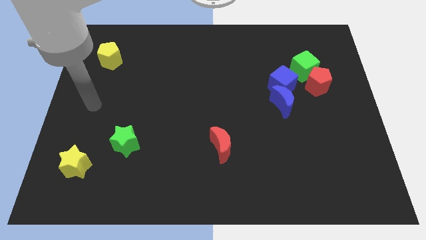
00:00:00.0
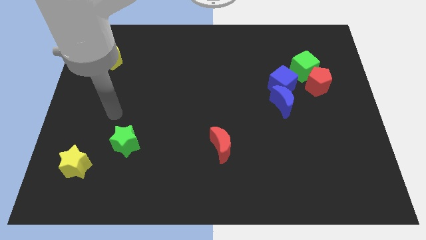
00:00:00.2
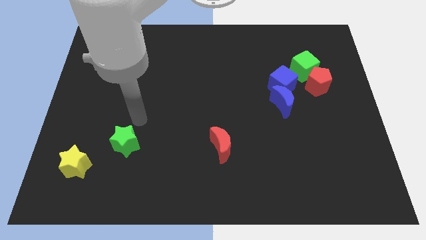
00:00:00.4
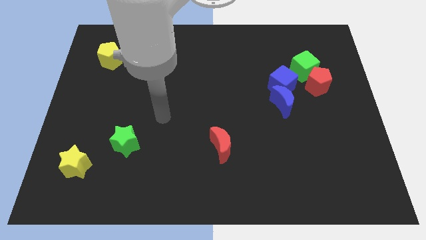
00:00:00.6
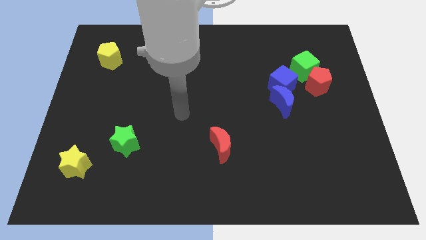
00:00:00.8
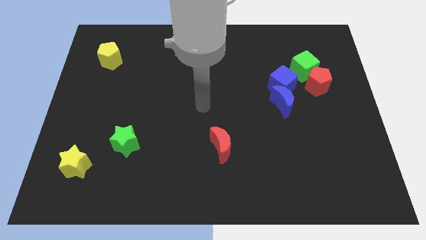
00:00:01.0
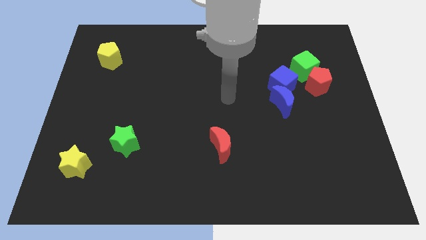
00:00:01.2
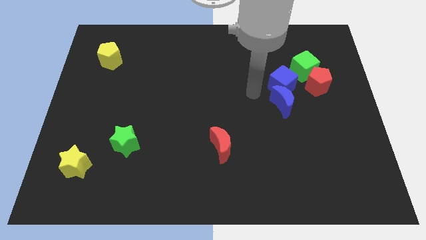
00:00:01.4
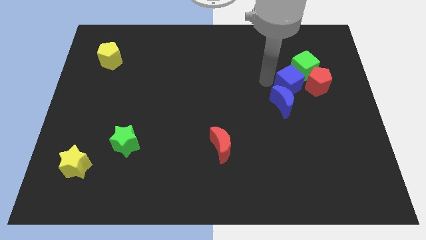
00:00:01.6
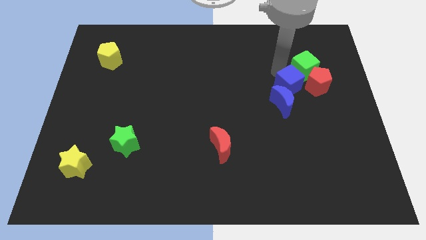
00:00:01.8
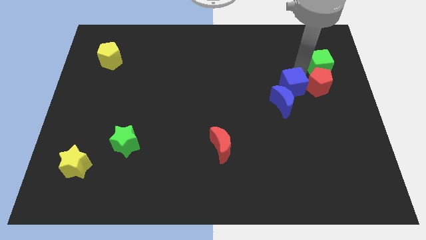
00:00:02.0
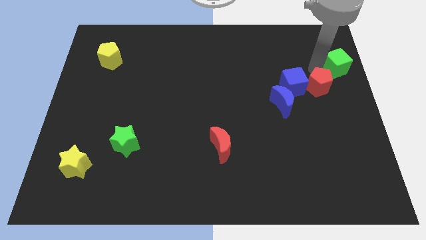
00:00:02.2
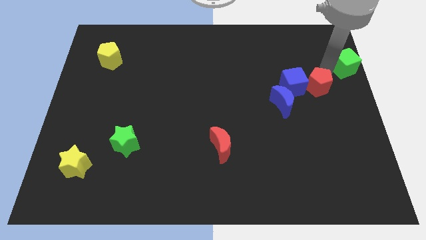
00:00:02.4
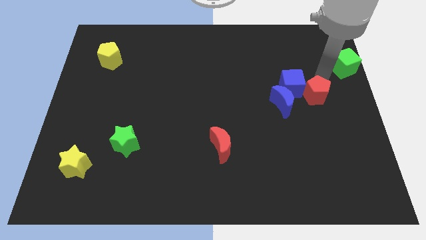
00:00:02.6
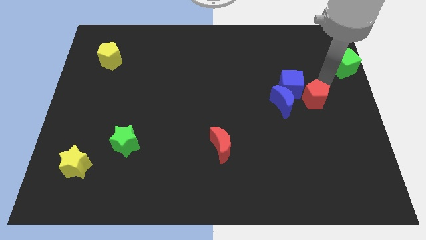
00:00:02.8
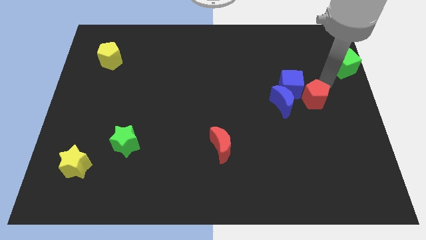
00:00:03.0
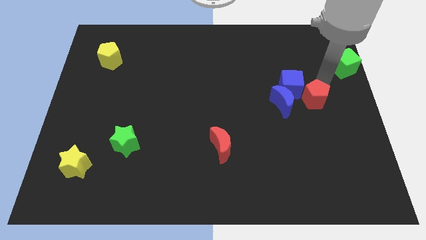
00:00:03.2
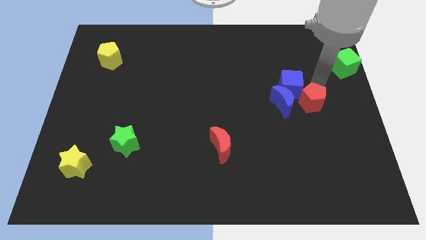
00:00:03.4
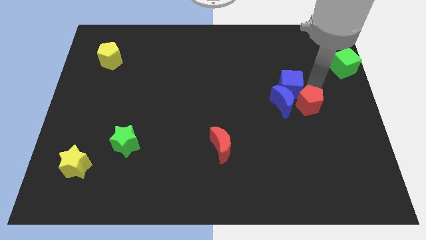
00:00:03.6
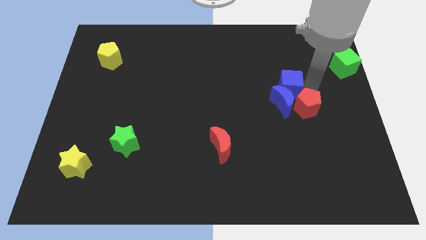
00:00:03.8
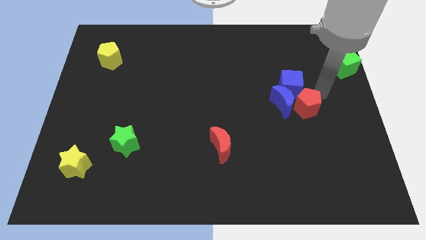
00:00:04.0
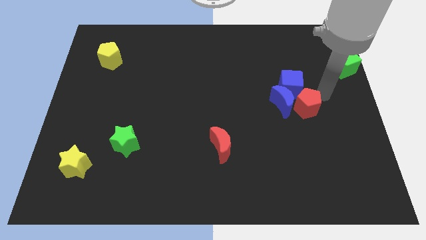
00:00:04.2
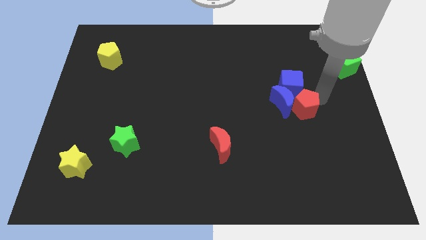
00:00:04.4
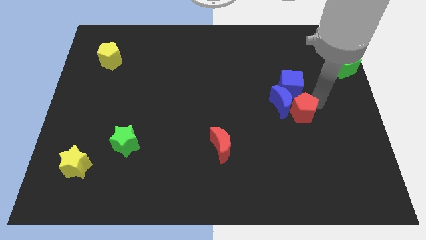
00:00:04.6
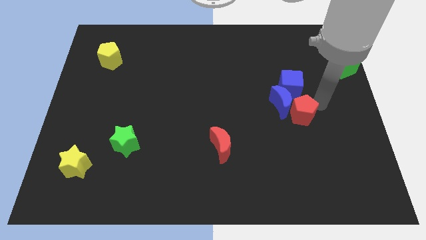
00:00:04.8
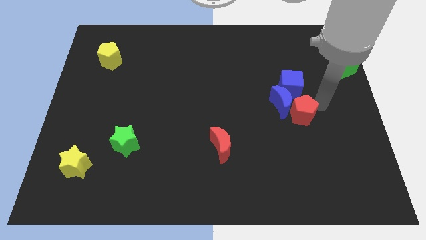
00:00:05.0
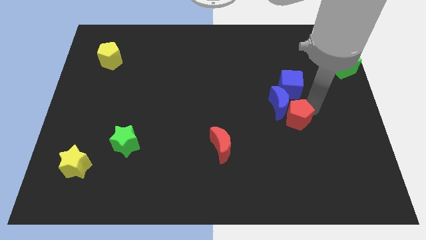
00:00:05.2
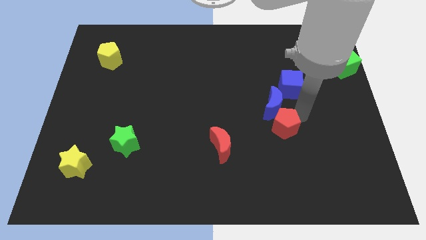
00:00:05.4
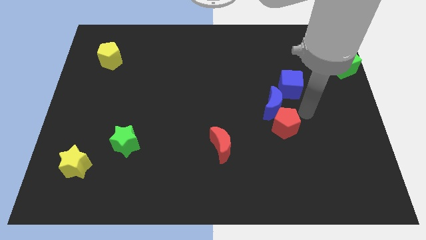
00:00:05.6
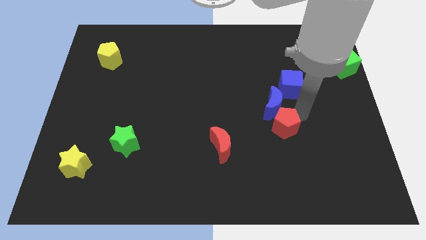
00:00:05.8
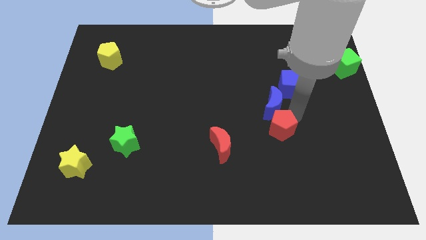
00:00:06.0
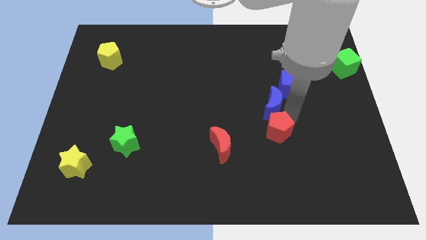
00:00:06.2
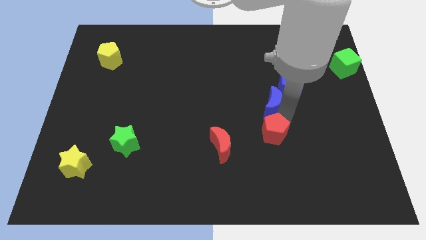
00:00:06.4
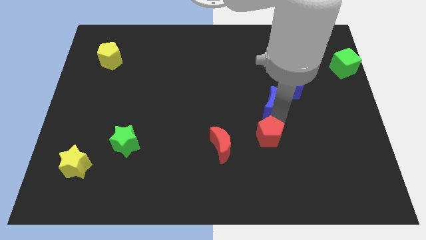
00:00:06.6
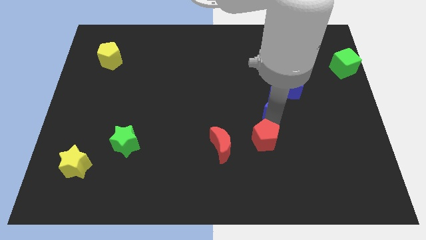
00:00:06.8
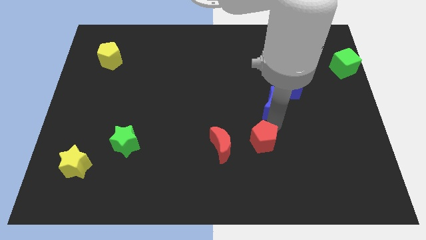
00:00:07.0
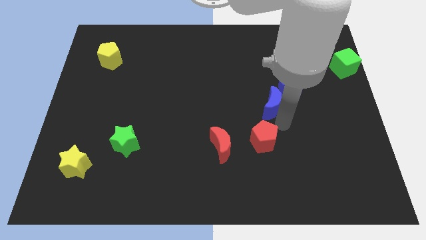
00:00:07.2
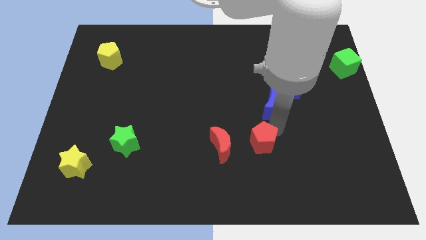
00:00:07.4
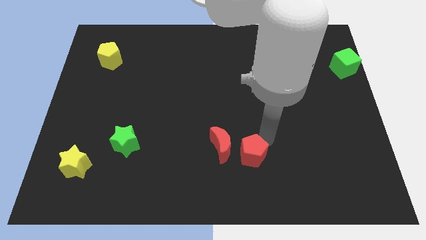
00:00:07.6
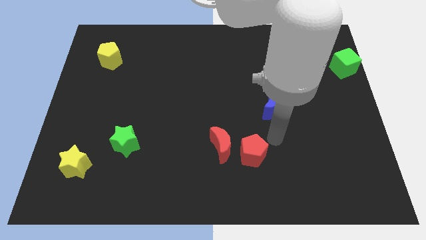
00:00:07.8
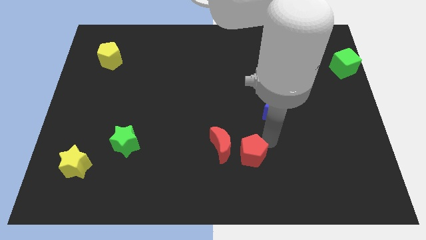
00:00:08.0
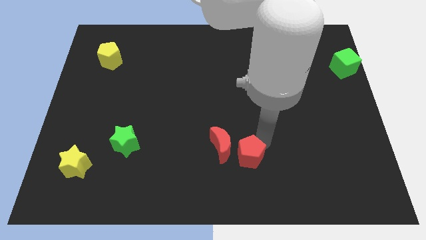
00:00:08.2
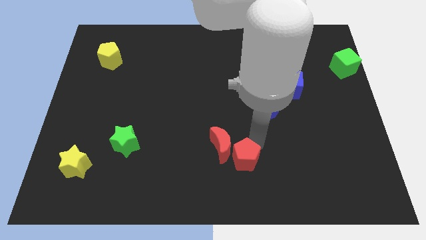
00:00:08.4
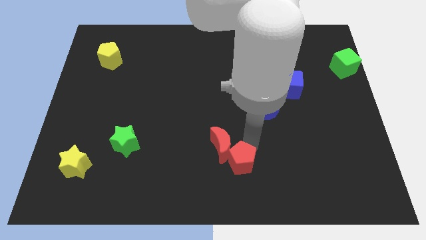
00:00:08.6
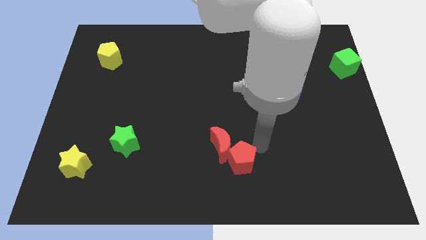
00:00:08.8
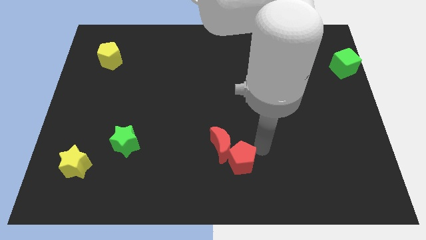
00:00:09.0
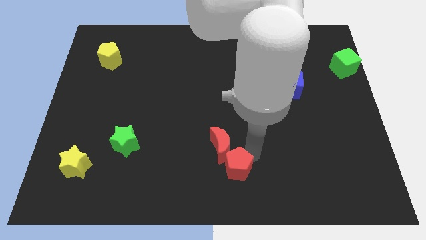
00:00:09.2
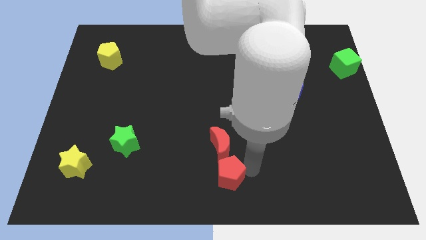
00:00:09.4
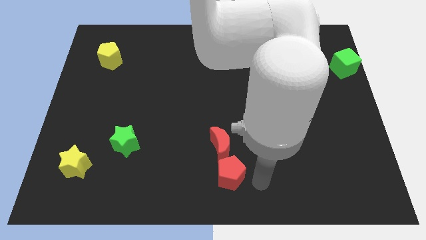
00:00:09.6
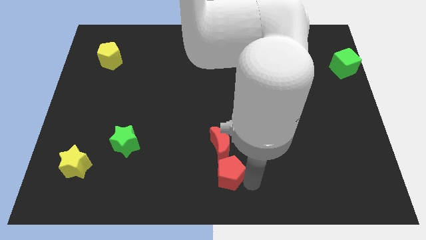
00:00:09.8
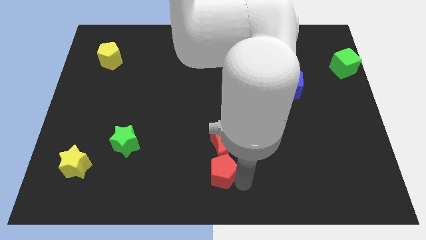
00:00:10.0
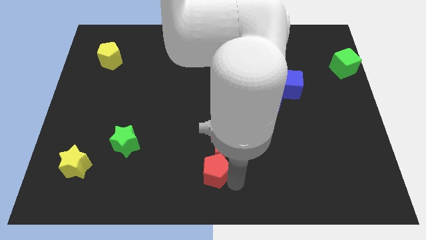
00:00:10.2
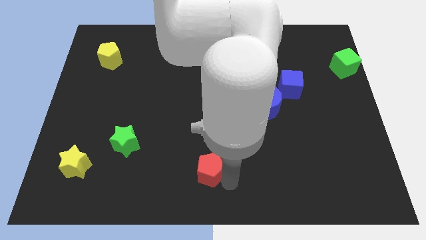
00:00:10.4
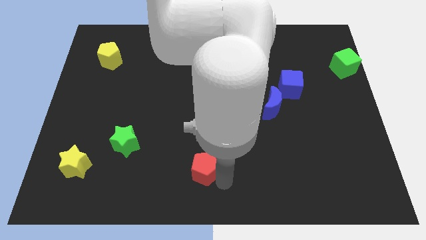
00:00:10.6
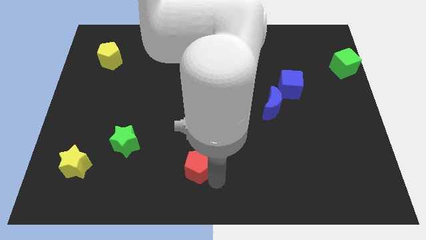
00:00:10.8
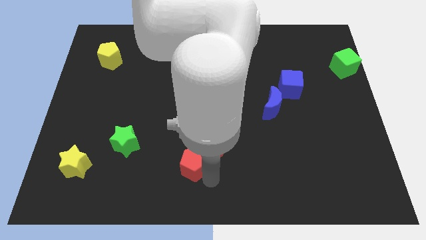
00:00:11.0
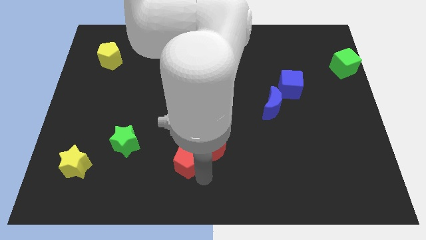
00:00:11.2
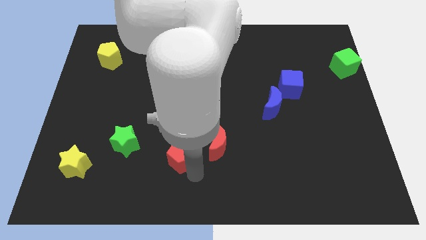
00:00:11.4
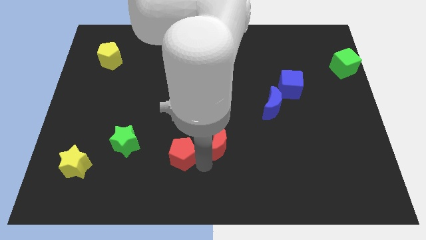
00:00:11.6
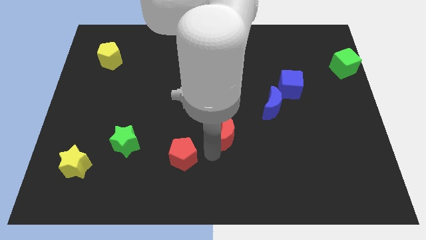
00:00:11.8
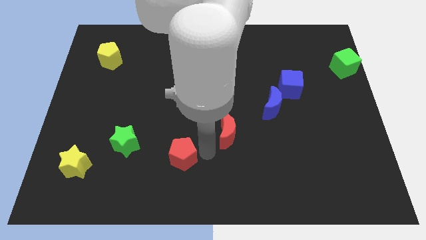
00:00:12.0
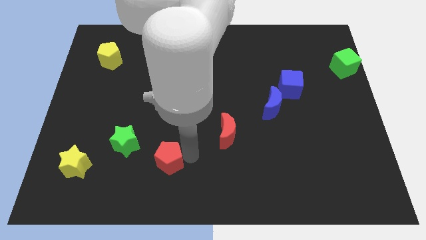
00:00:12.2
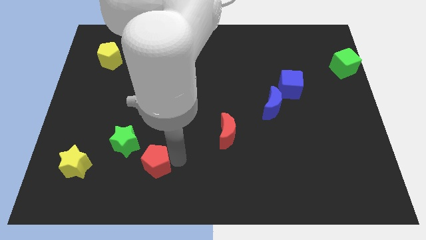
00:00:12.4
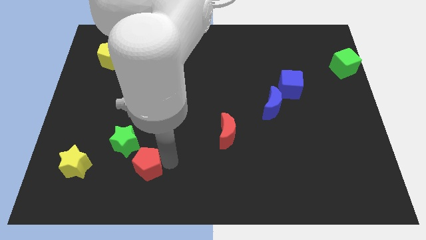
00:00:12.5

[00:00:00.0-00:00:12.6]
put the red pentagon right of the yellow star
